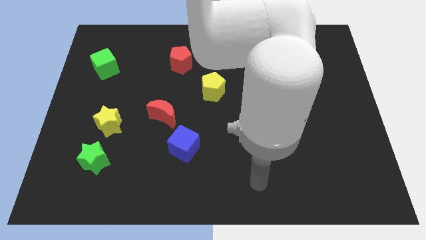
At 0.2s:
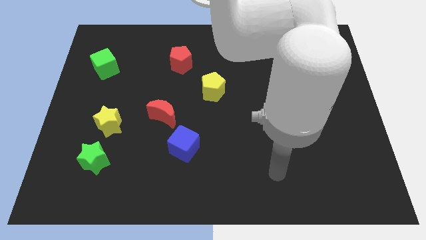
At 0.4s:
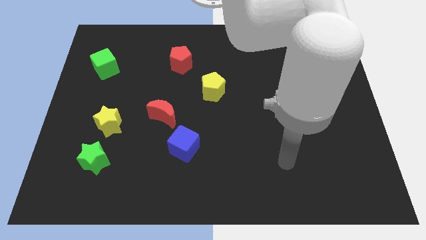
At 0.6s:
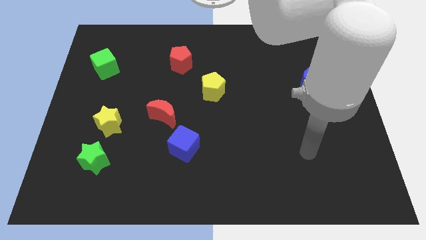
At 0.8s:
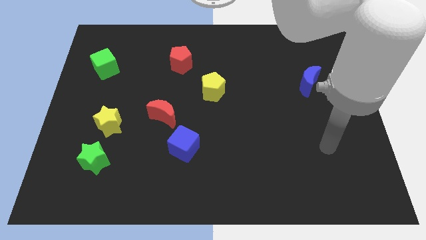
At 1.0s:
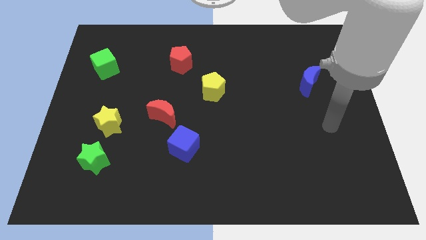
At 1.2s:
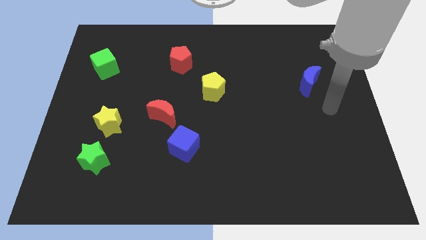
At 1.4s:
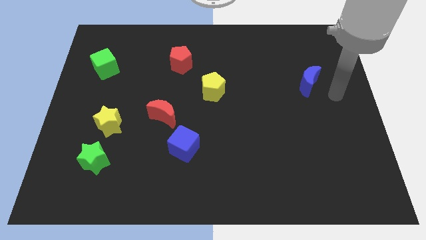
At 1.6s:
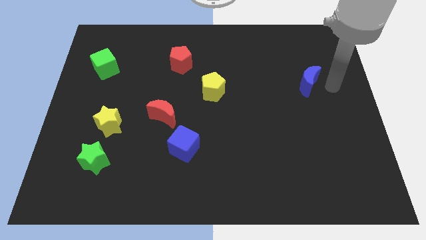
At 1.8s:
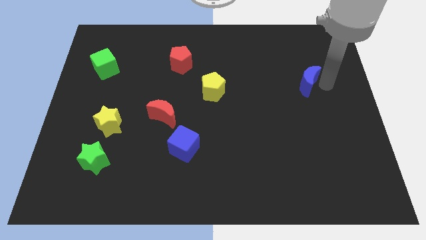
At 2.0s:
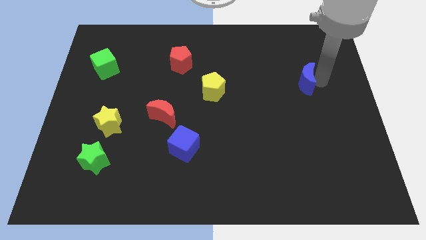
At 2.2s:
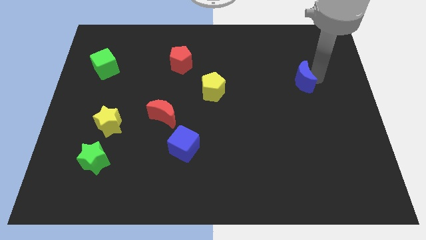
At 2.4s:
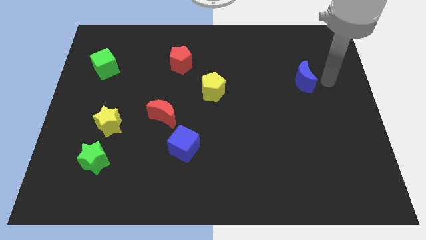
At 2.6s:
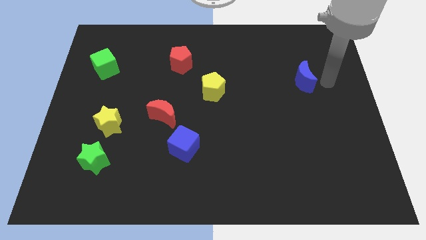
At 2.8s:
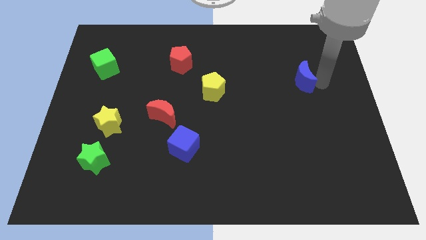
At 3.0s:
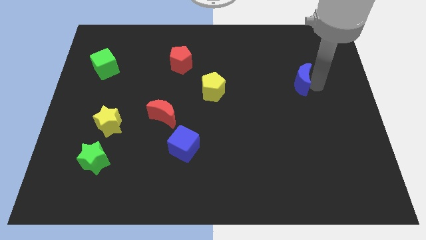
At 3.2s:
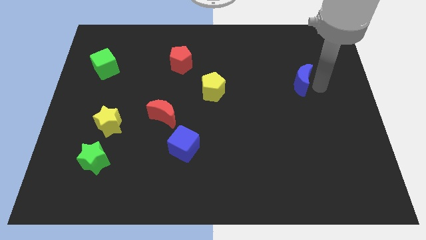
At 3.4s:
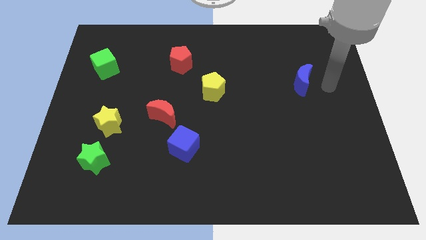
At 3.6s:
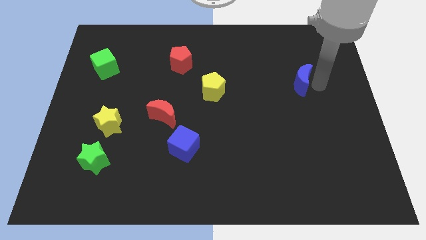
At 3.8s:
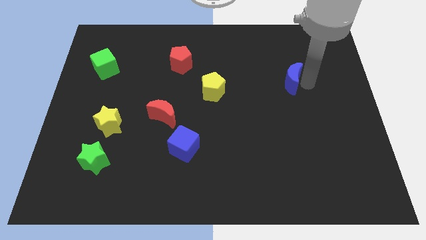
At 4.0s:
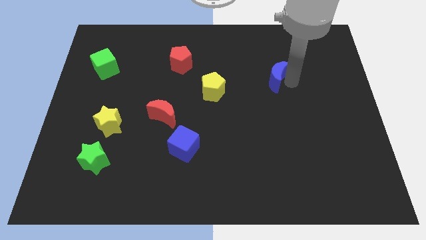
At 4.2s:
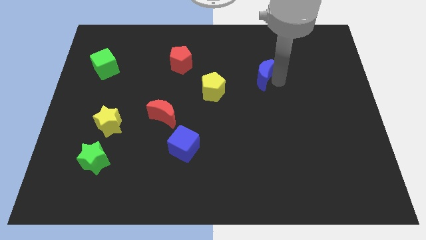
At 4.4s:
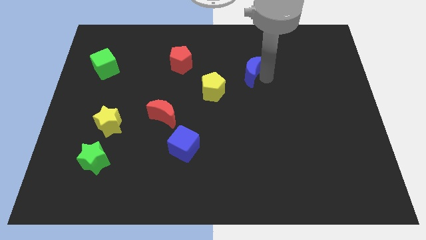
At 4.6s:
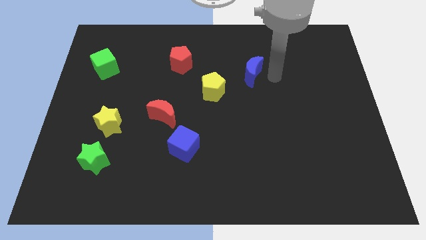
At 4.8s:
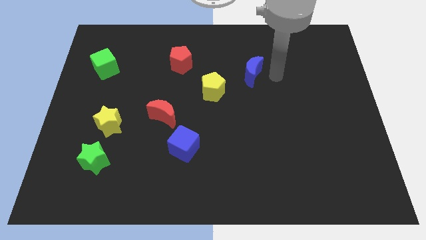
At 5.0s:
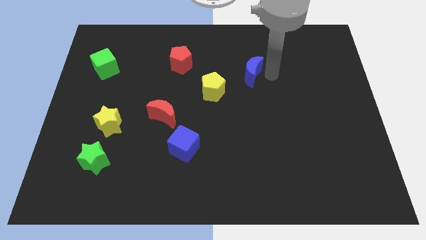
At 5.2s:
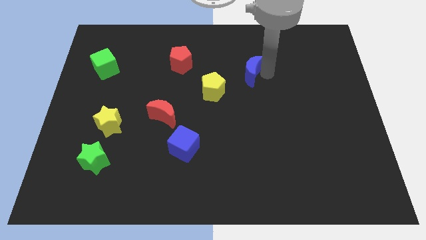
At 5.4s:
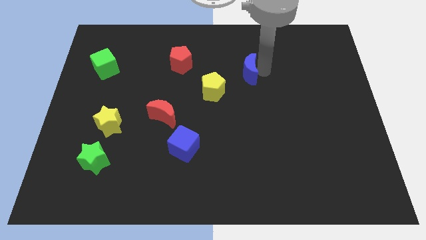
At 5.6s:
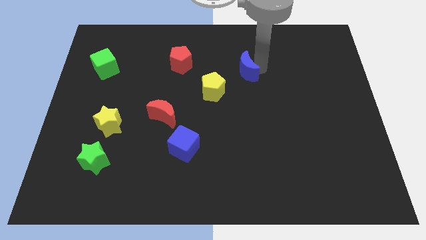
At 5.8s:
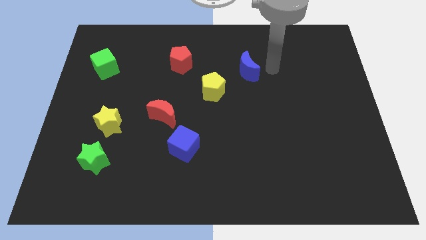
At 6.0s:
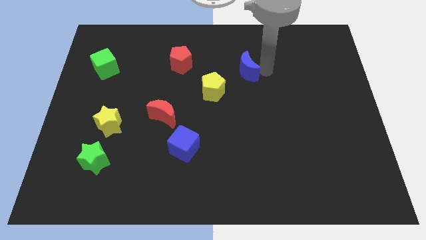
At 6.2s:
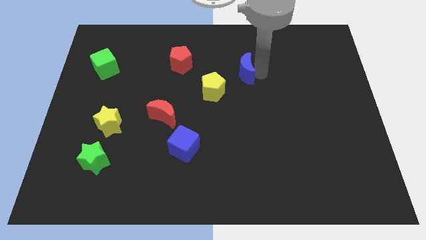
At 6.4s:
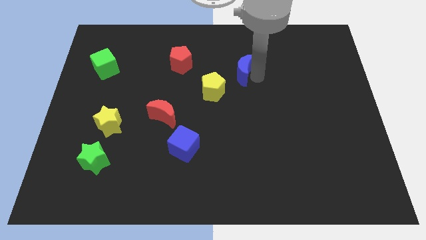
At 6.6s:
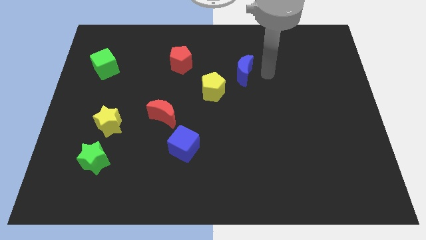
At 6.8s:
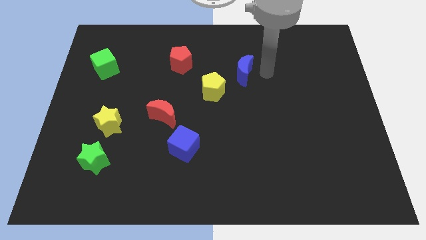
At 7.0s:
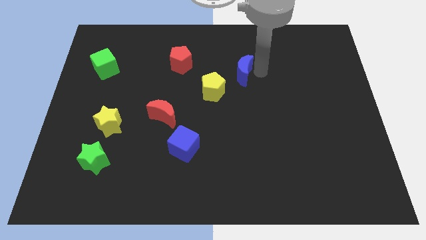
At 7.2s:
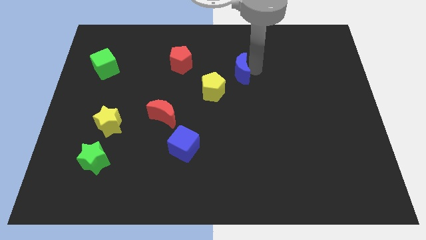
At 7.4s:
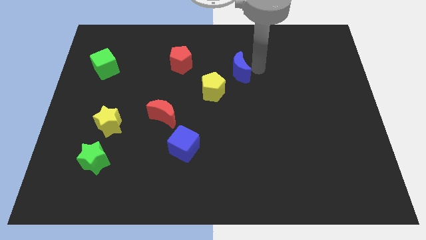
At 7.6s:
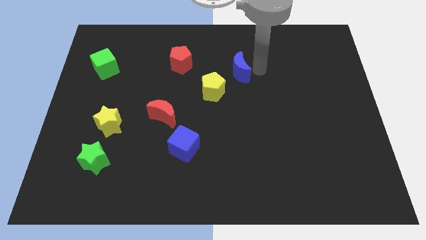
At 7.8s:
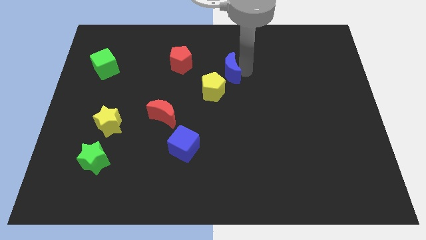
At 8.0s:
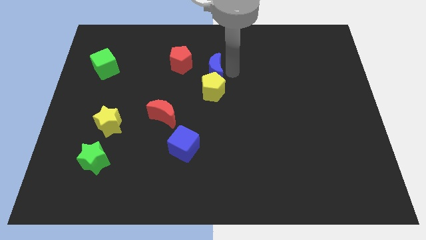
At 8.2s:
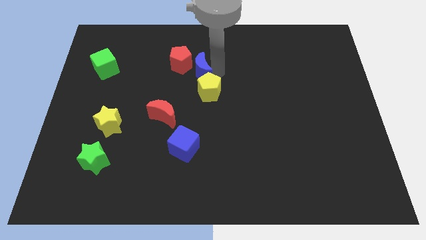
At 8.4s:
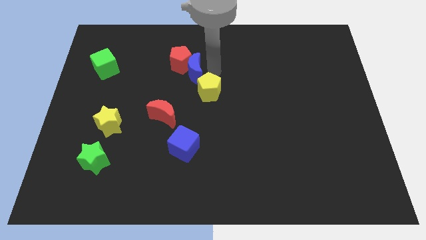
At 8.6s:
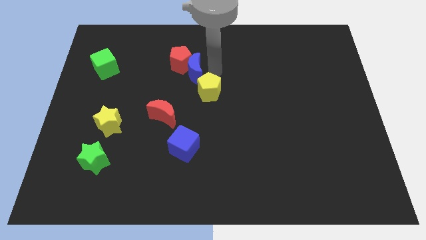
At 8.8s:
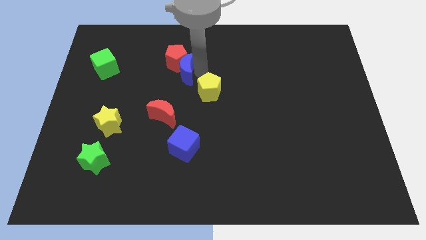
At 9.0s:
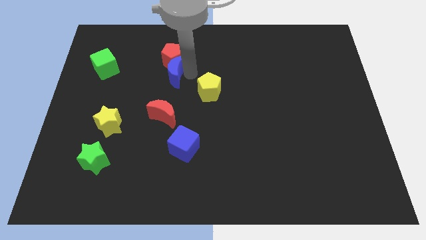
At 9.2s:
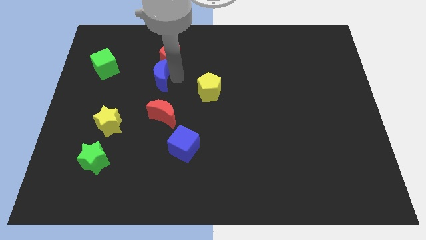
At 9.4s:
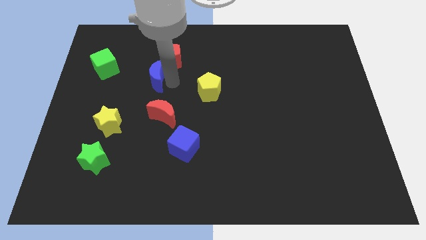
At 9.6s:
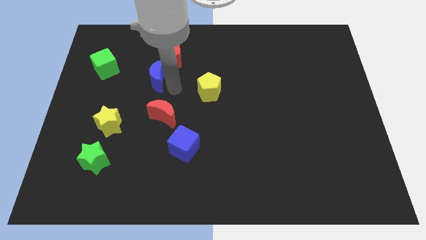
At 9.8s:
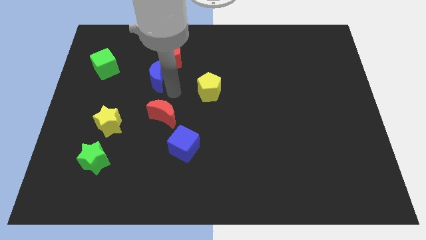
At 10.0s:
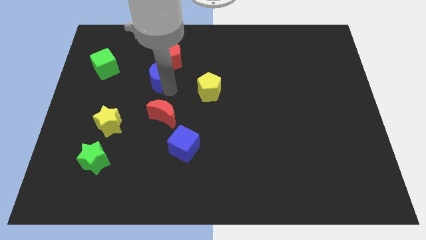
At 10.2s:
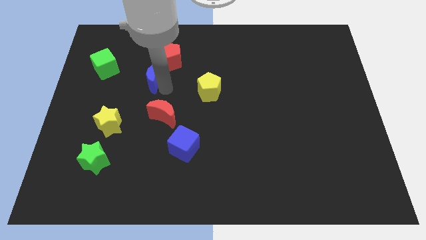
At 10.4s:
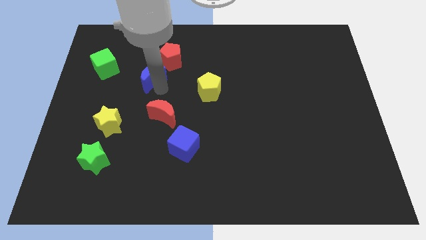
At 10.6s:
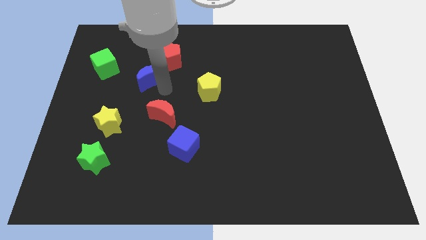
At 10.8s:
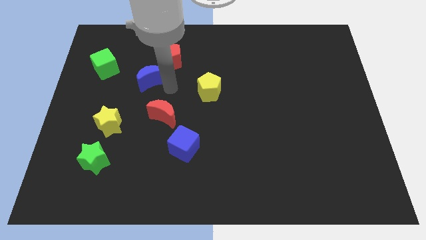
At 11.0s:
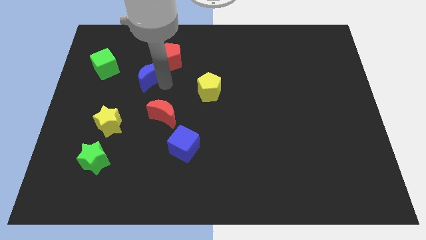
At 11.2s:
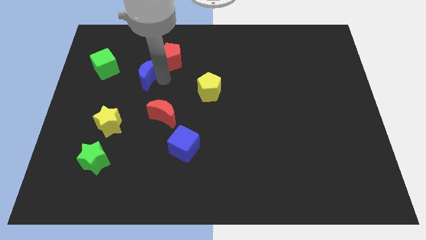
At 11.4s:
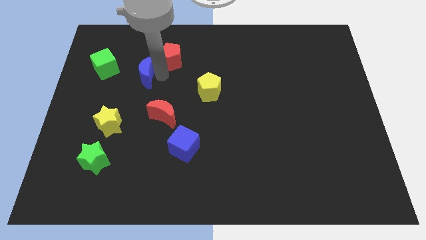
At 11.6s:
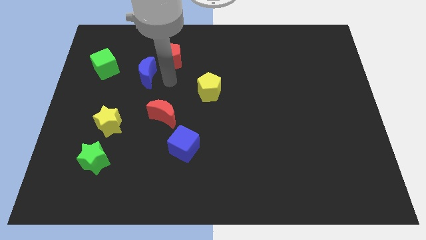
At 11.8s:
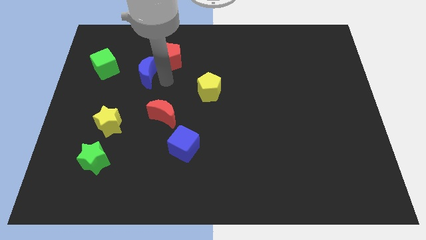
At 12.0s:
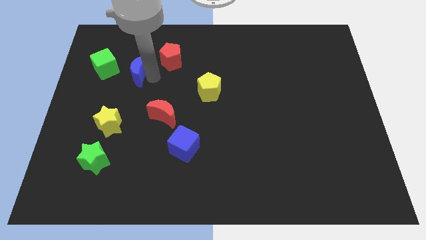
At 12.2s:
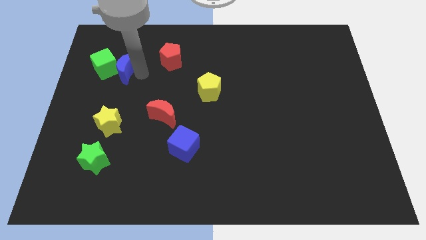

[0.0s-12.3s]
put the blue moon to the green cube

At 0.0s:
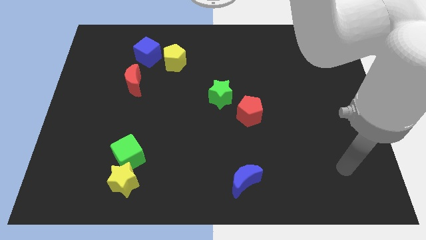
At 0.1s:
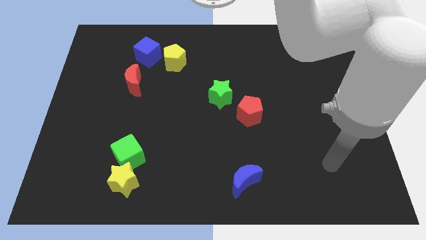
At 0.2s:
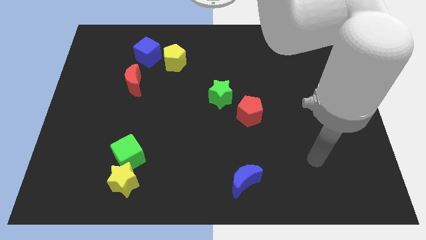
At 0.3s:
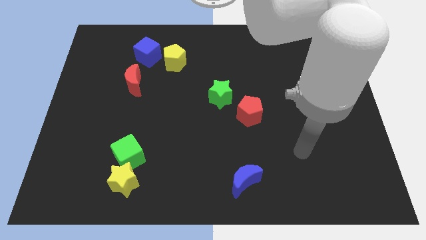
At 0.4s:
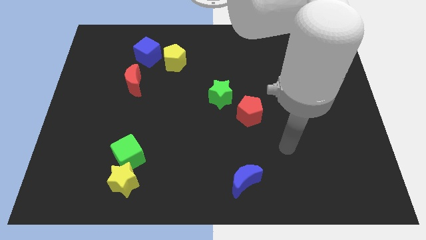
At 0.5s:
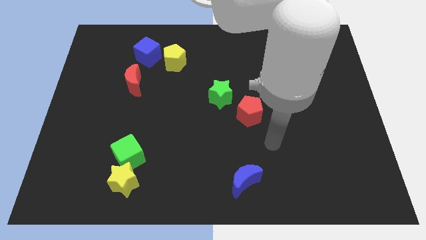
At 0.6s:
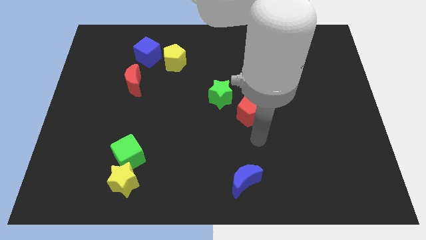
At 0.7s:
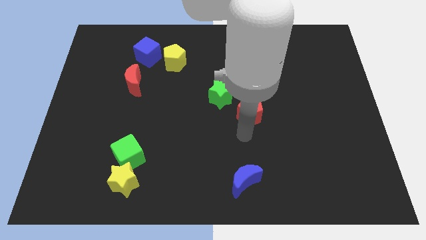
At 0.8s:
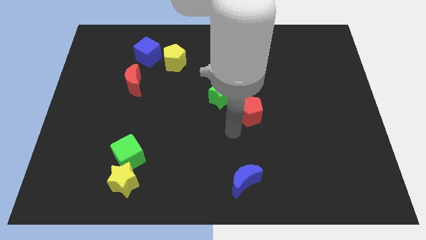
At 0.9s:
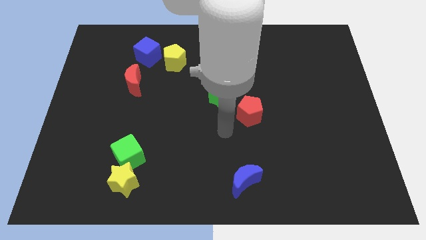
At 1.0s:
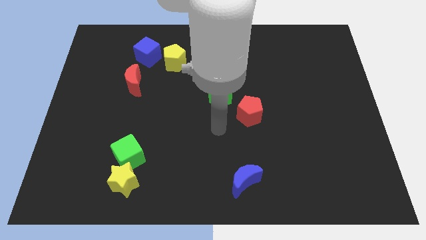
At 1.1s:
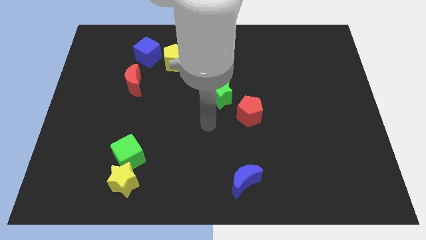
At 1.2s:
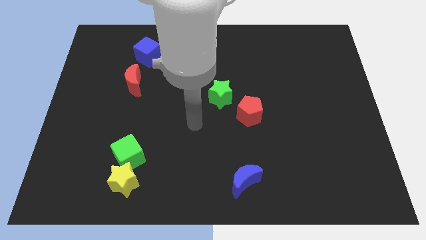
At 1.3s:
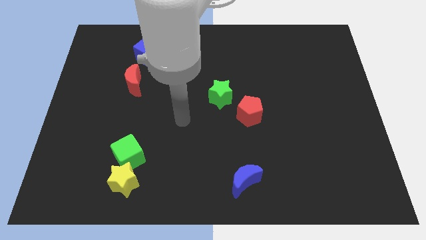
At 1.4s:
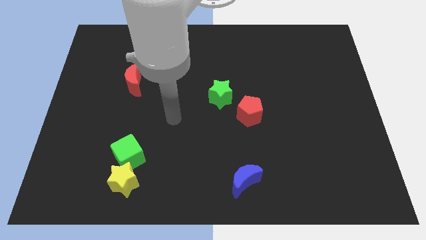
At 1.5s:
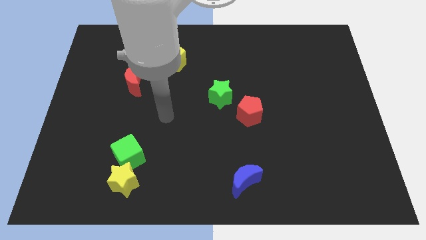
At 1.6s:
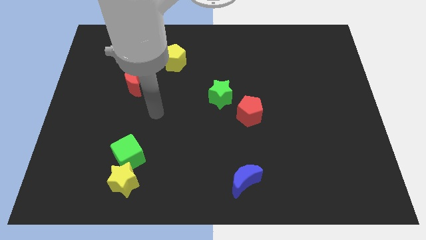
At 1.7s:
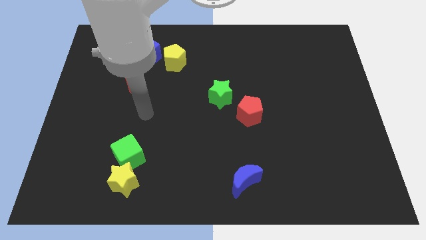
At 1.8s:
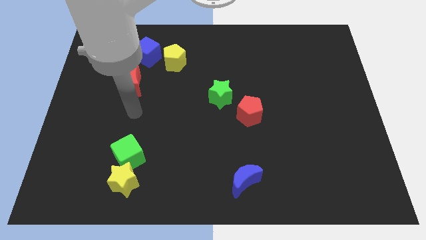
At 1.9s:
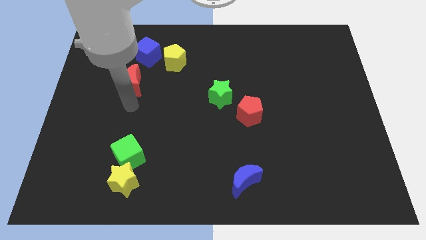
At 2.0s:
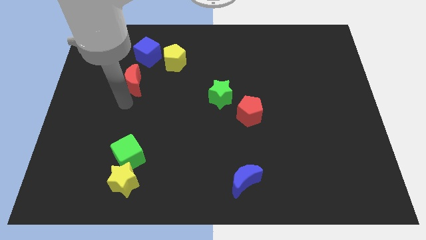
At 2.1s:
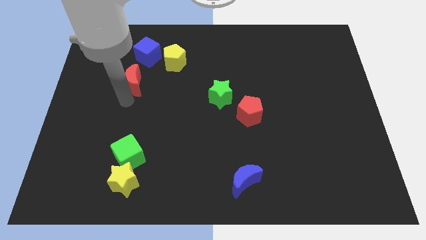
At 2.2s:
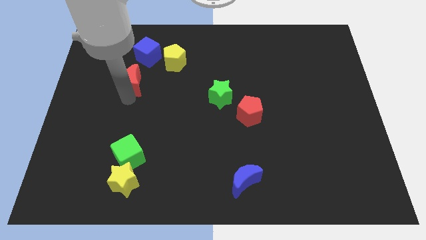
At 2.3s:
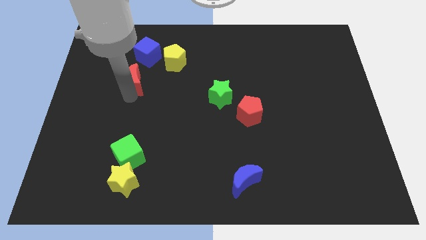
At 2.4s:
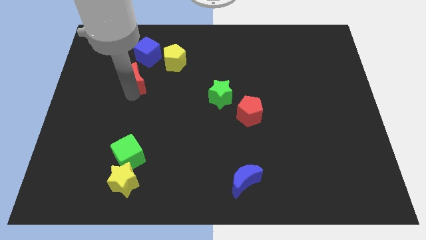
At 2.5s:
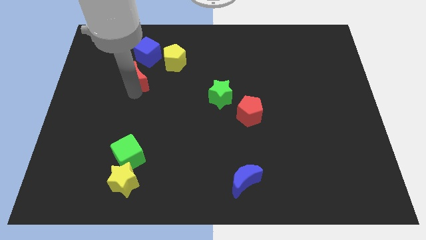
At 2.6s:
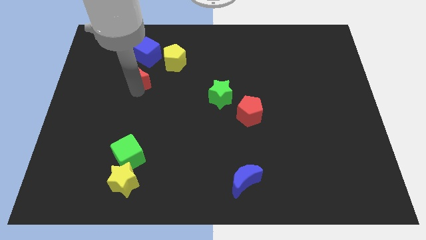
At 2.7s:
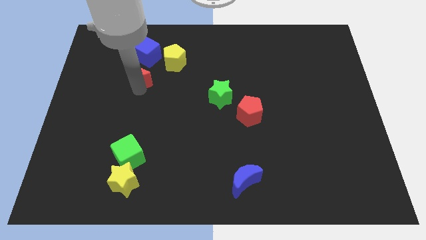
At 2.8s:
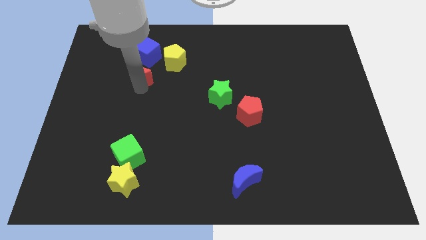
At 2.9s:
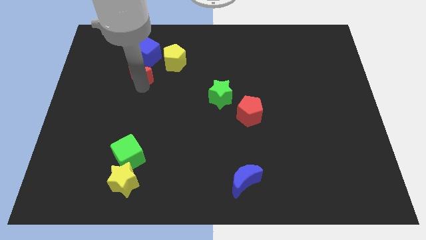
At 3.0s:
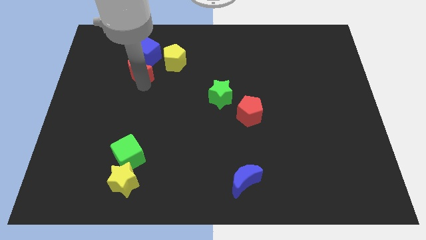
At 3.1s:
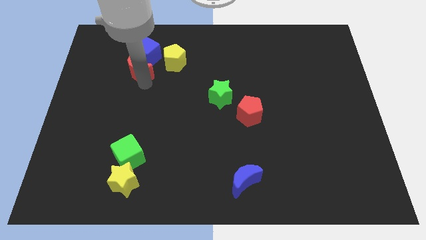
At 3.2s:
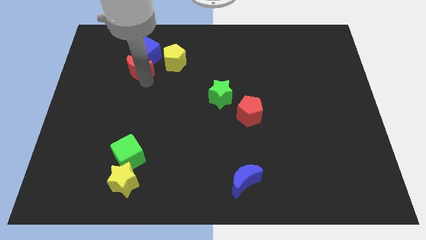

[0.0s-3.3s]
put the red moon close to the blue cube
